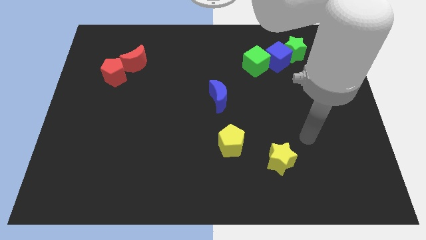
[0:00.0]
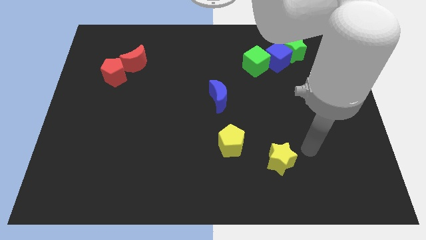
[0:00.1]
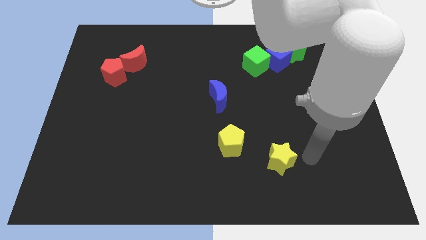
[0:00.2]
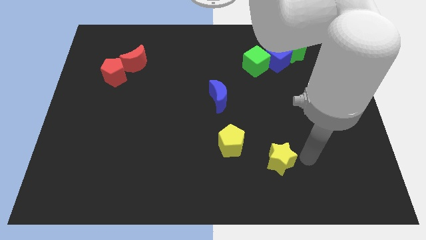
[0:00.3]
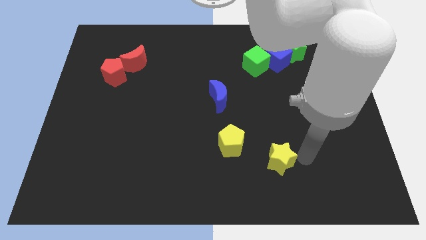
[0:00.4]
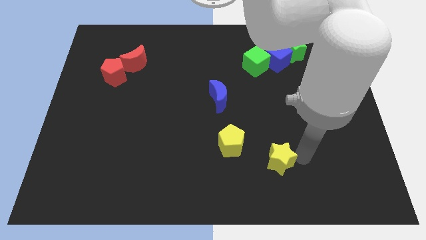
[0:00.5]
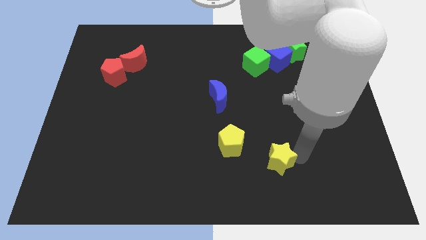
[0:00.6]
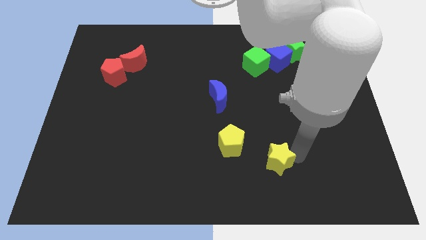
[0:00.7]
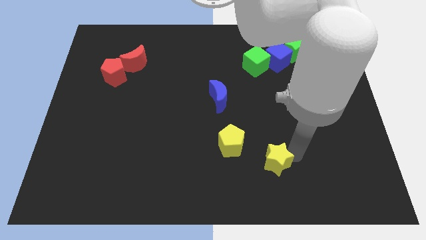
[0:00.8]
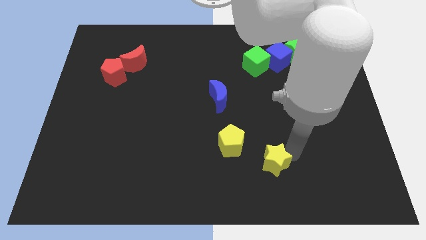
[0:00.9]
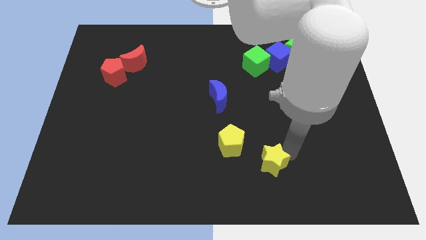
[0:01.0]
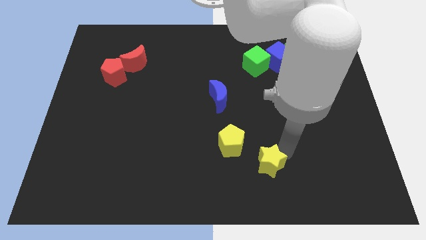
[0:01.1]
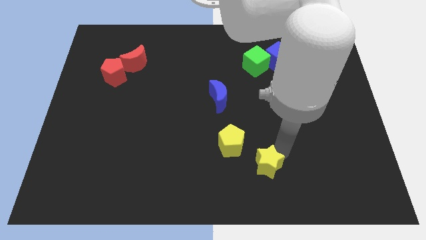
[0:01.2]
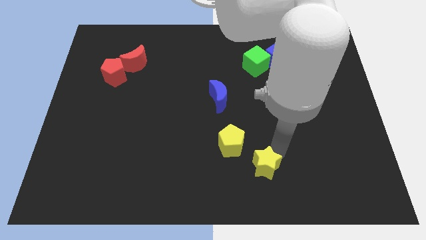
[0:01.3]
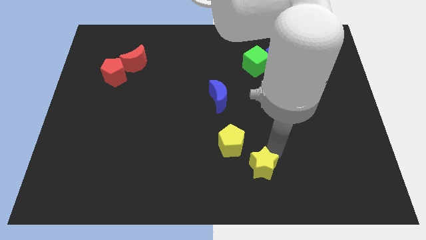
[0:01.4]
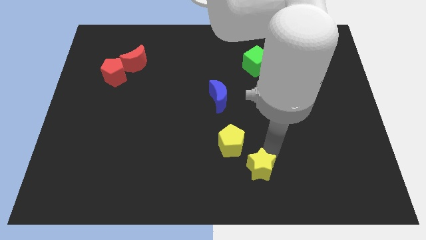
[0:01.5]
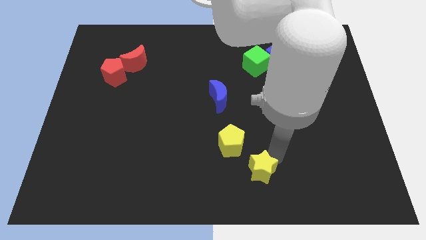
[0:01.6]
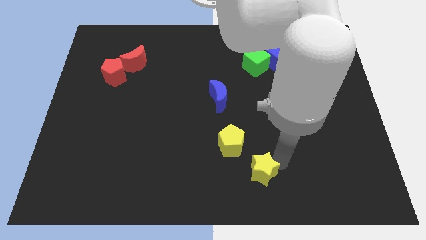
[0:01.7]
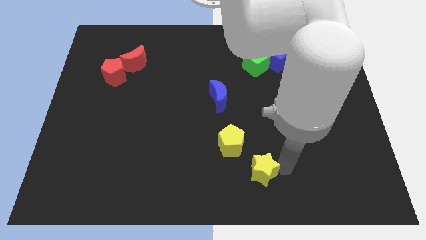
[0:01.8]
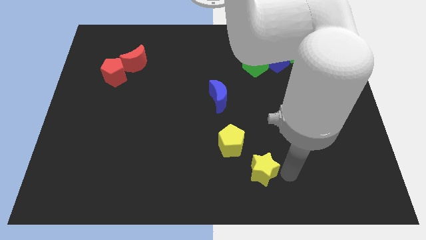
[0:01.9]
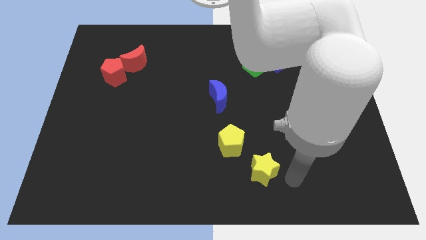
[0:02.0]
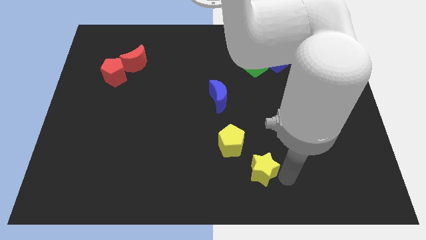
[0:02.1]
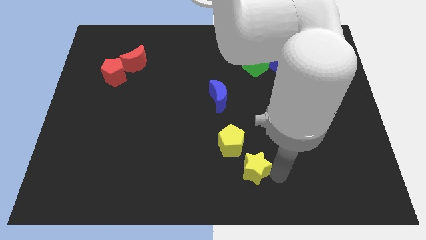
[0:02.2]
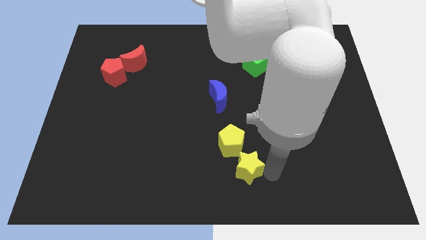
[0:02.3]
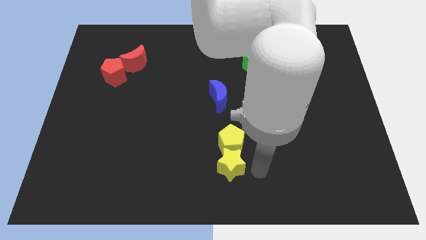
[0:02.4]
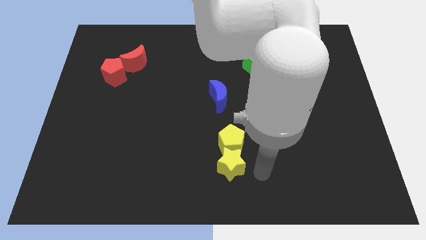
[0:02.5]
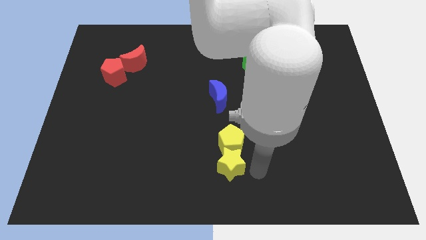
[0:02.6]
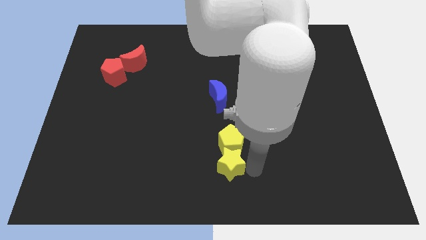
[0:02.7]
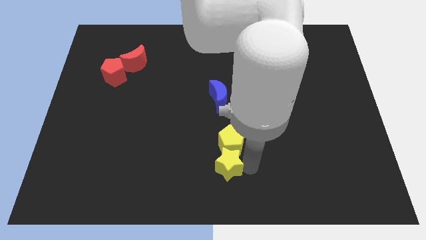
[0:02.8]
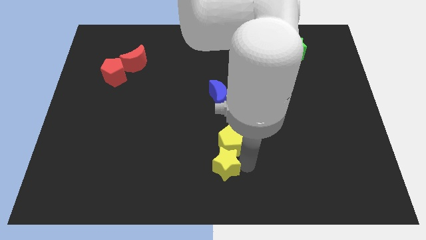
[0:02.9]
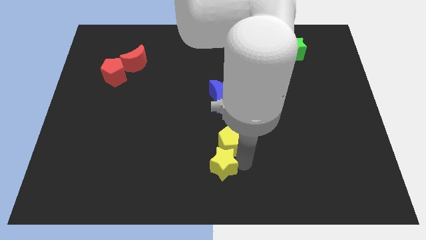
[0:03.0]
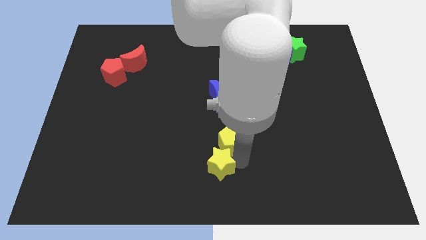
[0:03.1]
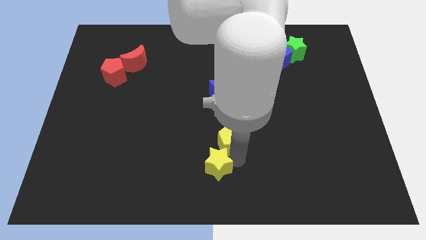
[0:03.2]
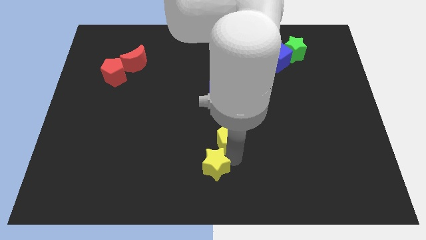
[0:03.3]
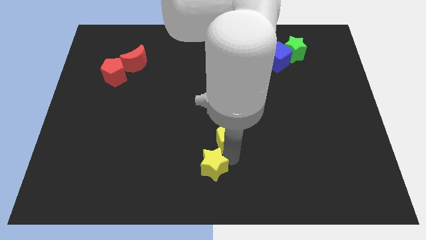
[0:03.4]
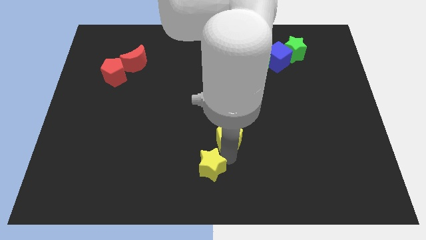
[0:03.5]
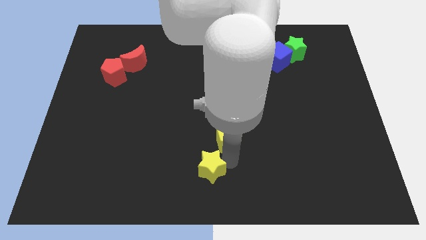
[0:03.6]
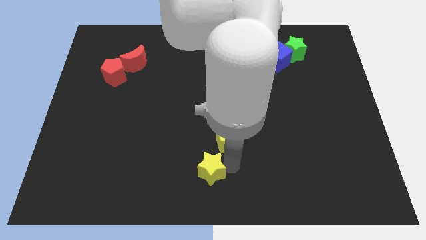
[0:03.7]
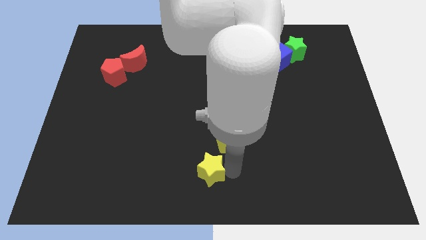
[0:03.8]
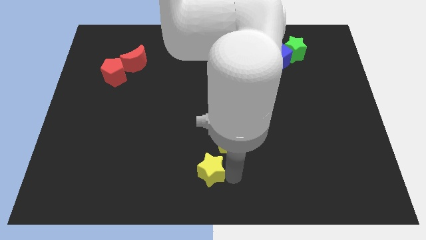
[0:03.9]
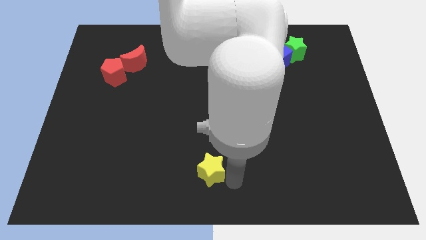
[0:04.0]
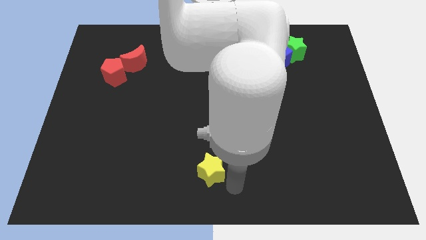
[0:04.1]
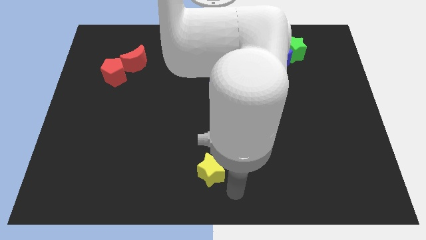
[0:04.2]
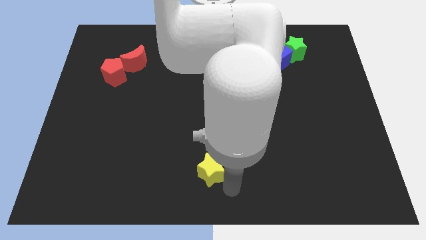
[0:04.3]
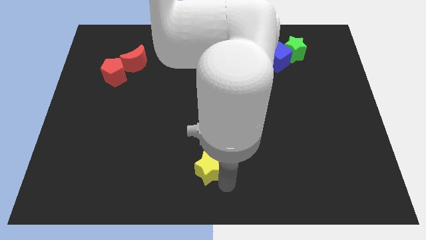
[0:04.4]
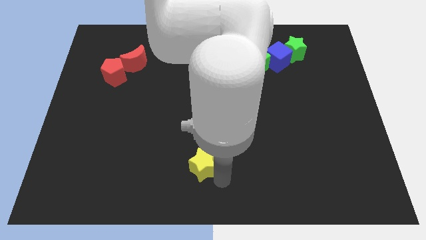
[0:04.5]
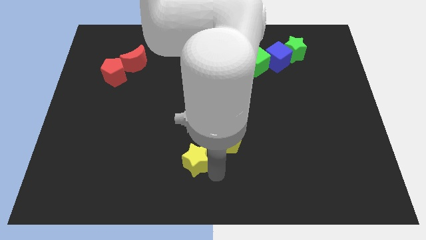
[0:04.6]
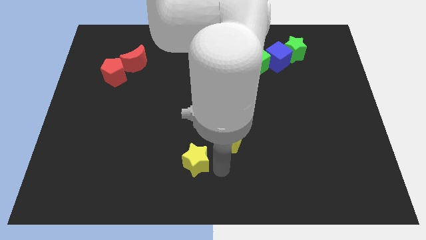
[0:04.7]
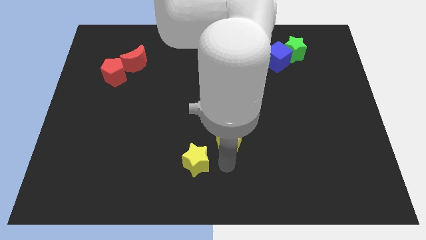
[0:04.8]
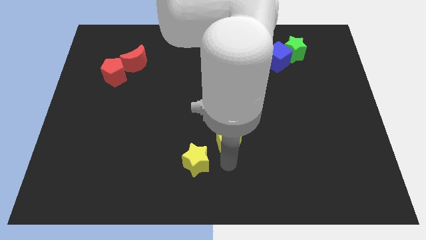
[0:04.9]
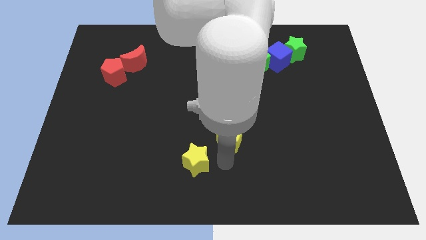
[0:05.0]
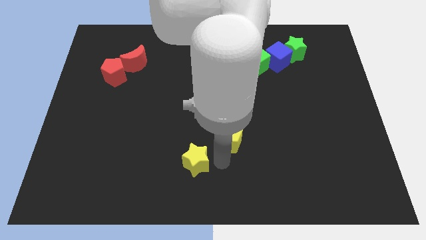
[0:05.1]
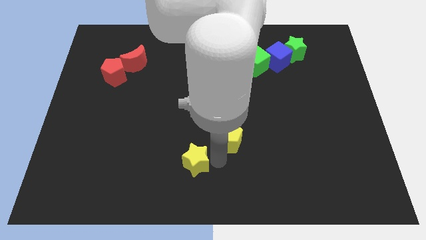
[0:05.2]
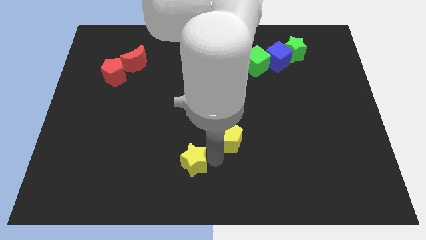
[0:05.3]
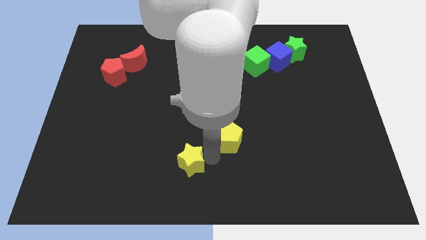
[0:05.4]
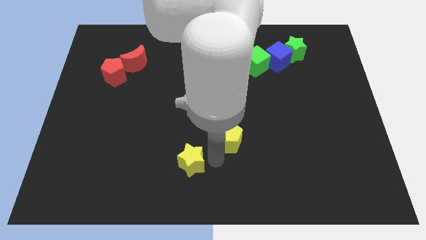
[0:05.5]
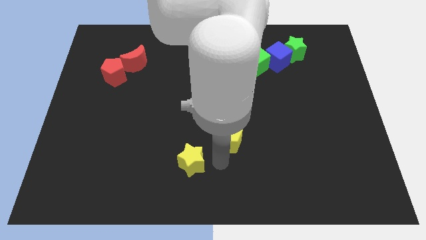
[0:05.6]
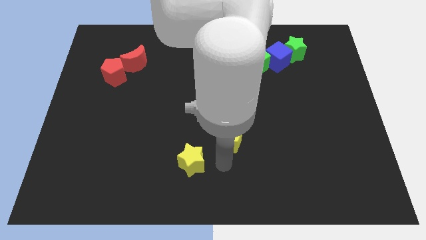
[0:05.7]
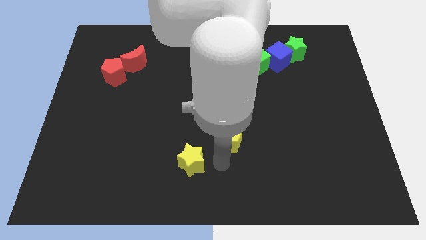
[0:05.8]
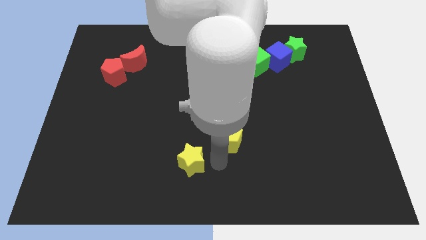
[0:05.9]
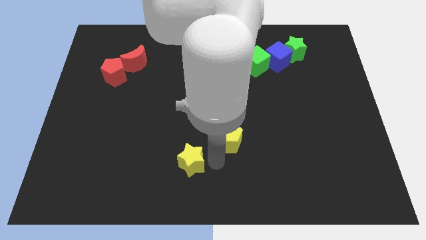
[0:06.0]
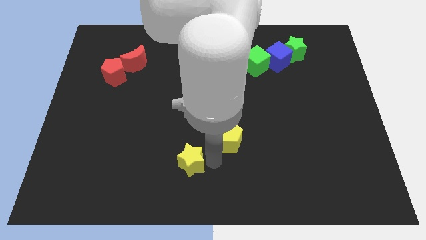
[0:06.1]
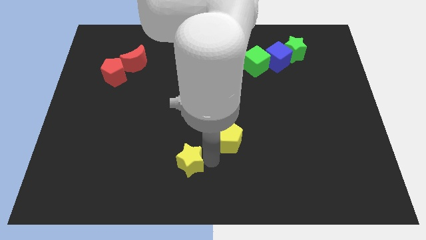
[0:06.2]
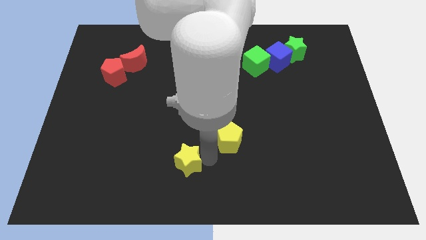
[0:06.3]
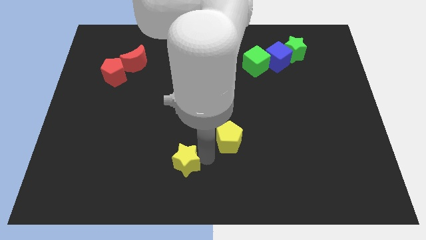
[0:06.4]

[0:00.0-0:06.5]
move the yellow star to the left

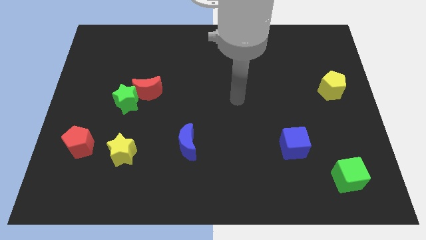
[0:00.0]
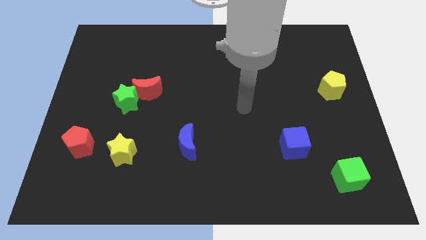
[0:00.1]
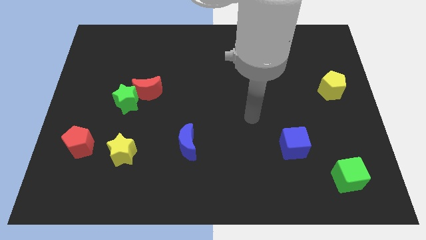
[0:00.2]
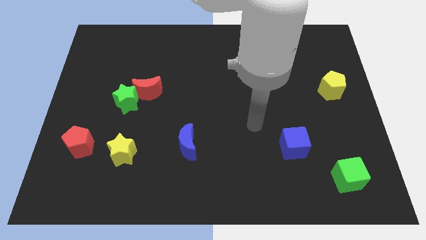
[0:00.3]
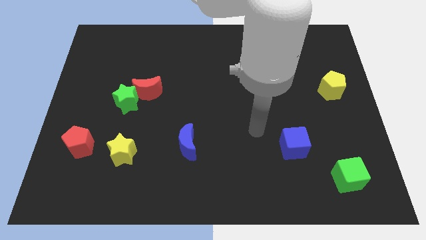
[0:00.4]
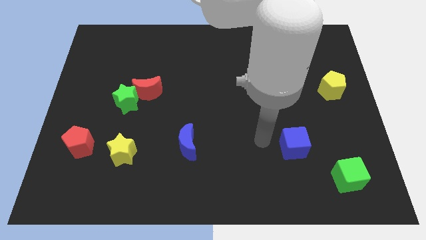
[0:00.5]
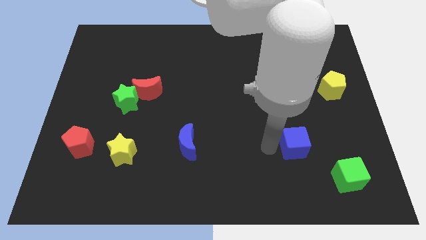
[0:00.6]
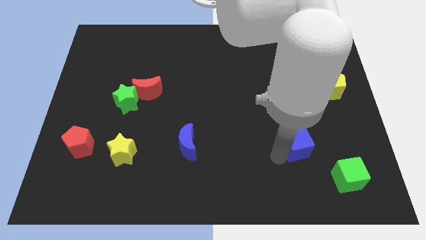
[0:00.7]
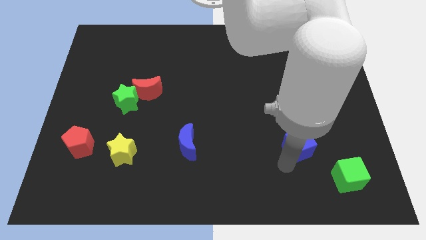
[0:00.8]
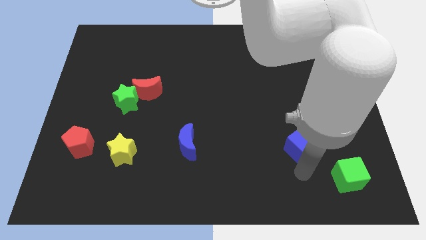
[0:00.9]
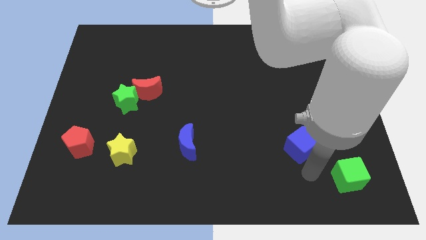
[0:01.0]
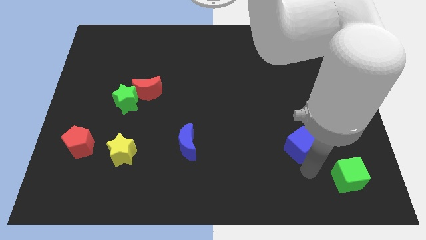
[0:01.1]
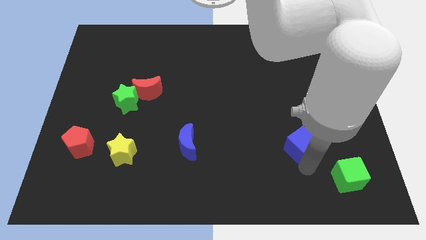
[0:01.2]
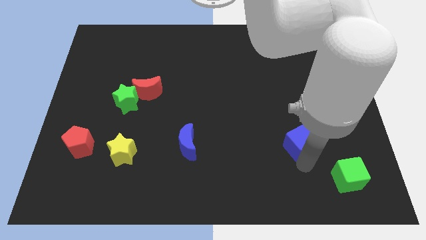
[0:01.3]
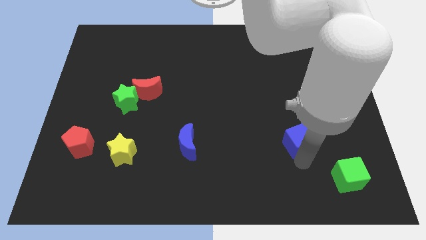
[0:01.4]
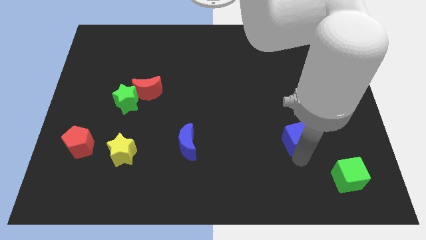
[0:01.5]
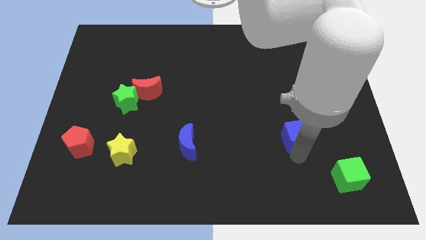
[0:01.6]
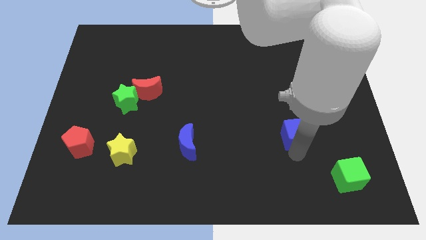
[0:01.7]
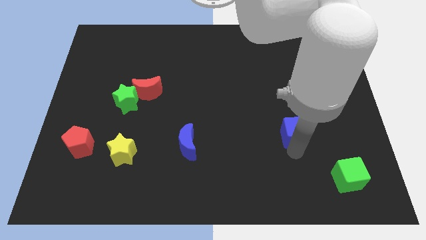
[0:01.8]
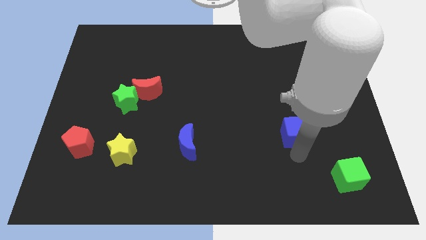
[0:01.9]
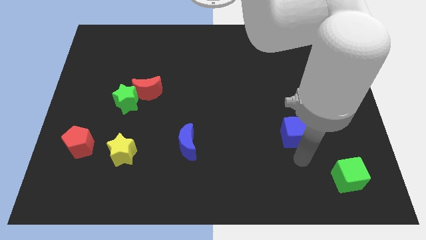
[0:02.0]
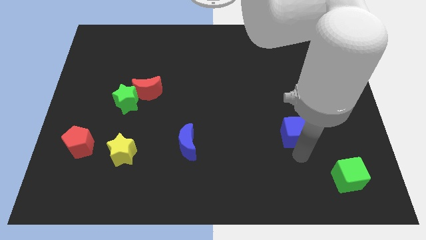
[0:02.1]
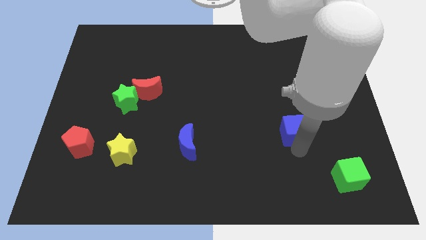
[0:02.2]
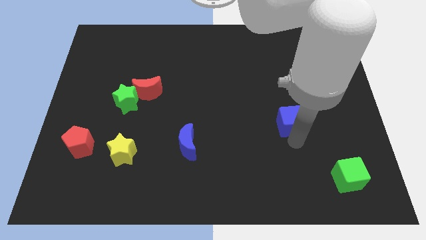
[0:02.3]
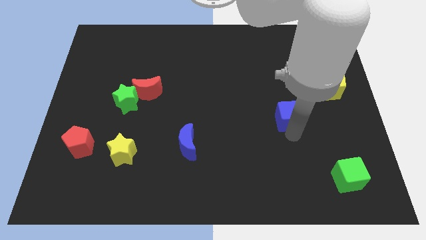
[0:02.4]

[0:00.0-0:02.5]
move the blue cube up slightly
